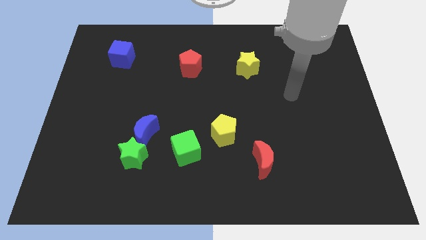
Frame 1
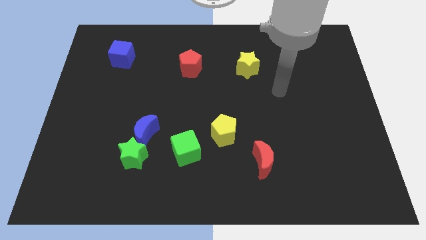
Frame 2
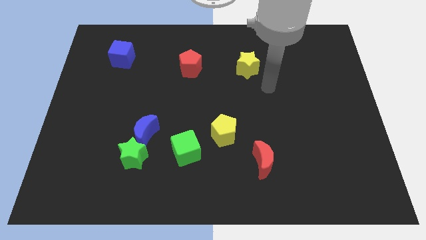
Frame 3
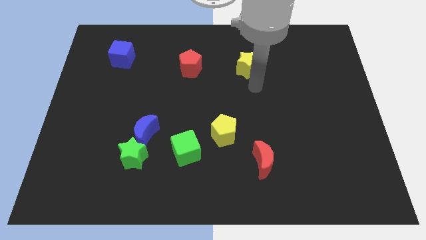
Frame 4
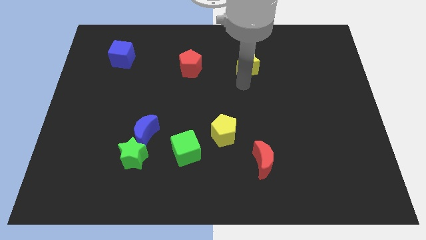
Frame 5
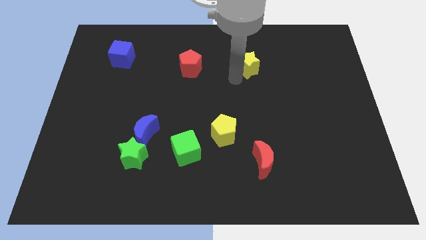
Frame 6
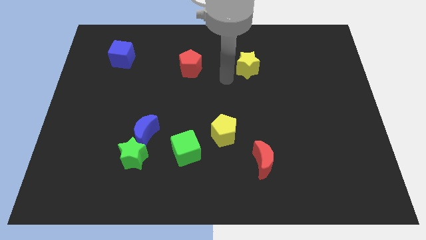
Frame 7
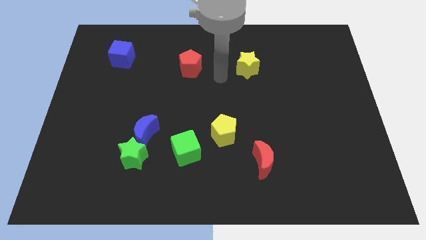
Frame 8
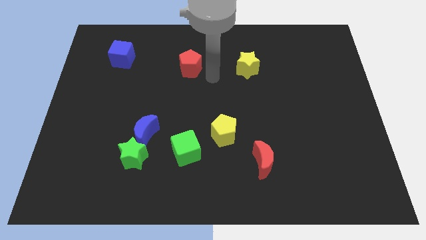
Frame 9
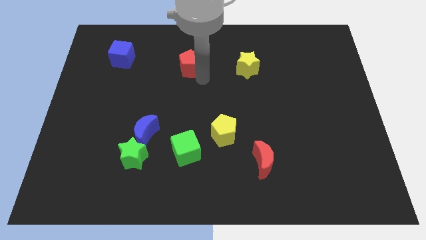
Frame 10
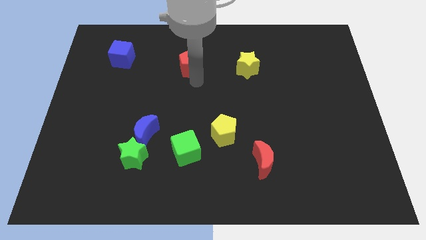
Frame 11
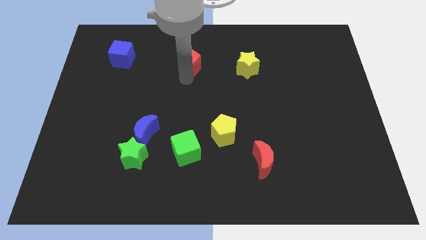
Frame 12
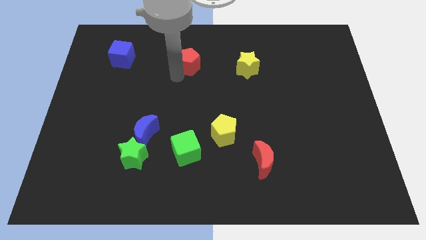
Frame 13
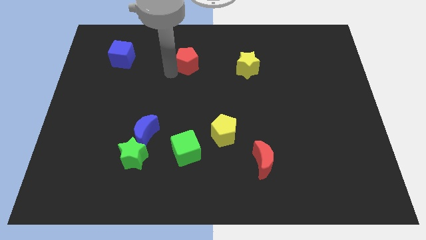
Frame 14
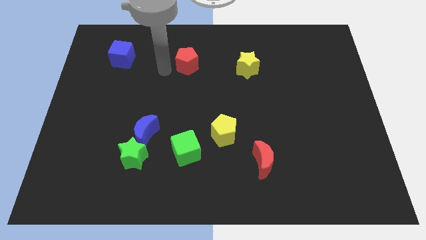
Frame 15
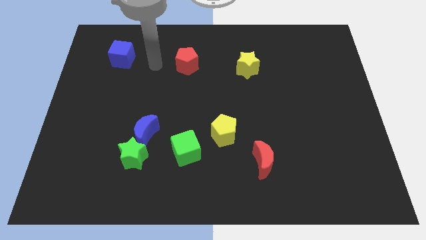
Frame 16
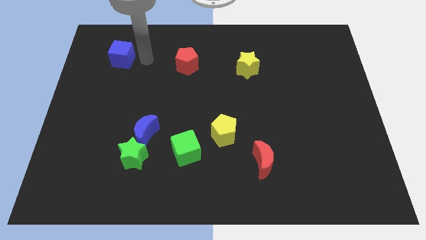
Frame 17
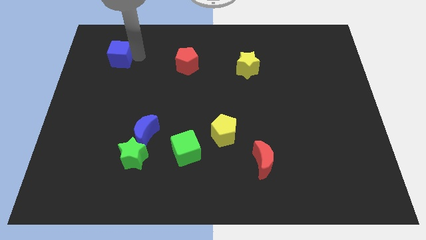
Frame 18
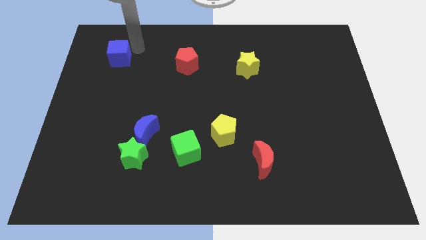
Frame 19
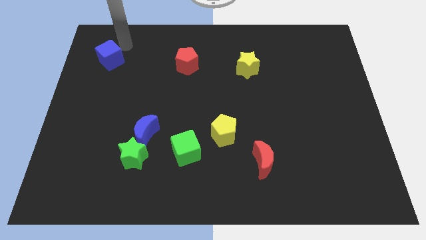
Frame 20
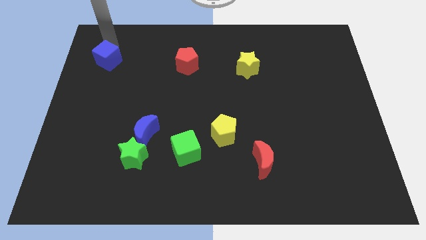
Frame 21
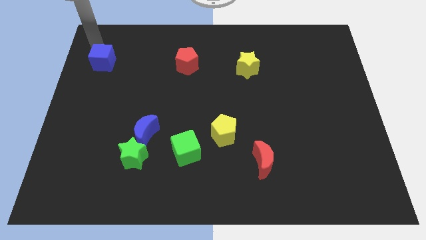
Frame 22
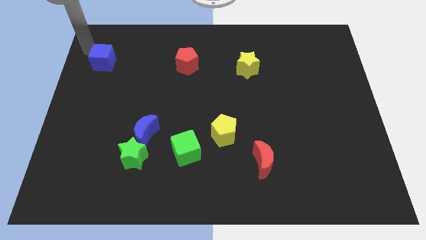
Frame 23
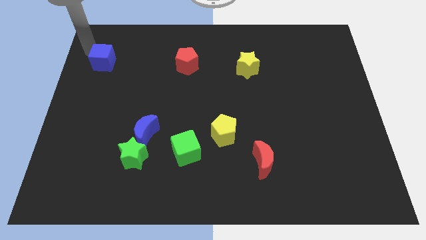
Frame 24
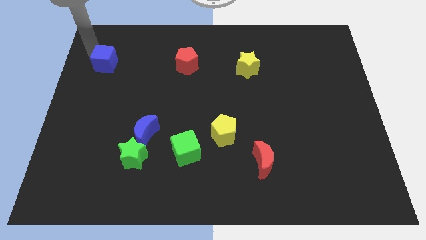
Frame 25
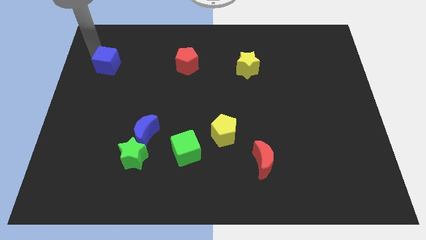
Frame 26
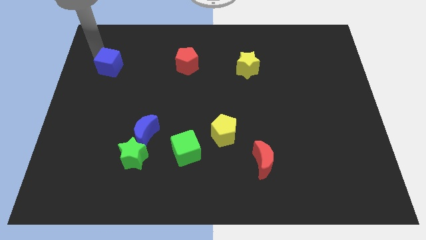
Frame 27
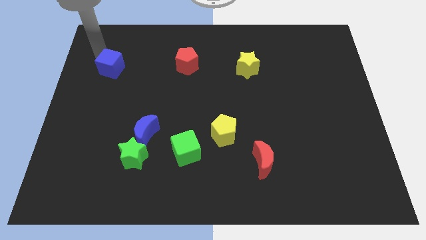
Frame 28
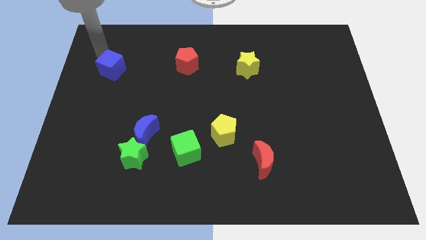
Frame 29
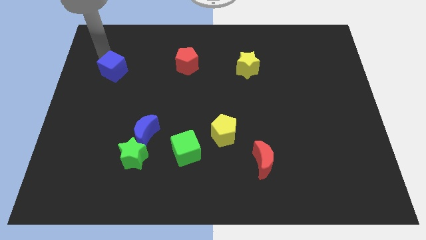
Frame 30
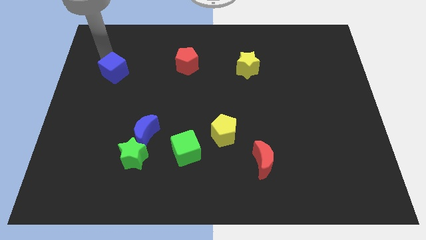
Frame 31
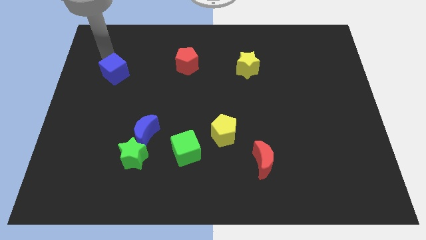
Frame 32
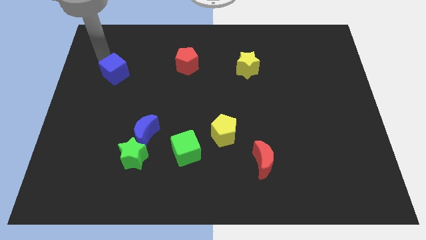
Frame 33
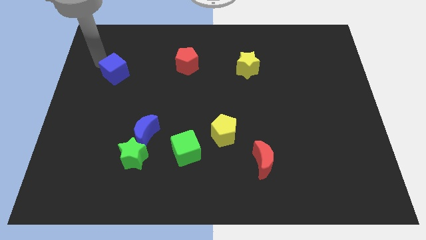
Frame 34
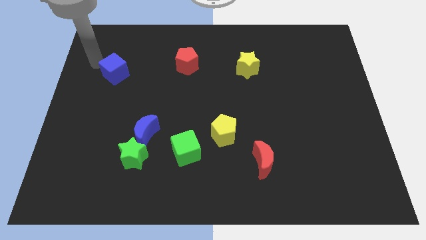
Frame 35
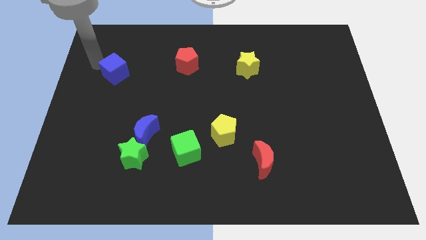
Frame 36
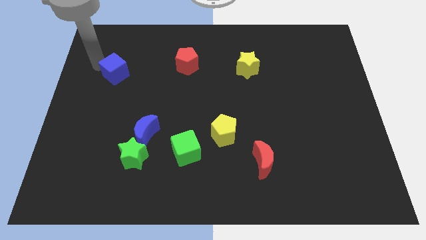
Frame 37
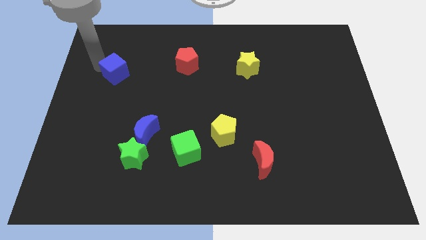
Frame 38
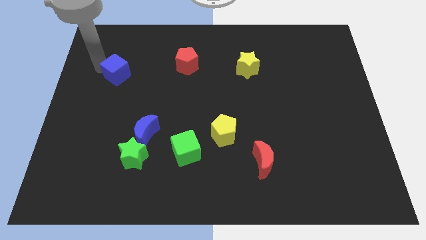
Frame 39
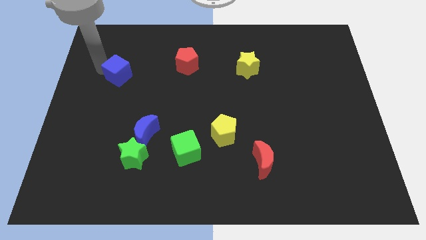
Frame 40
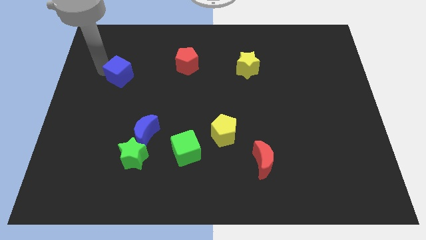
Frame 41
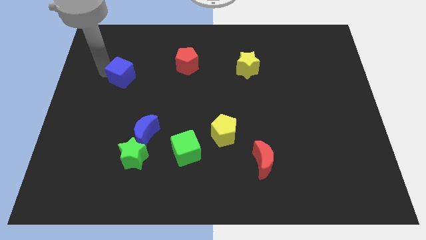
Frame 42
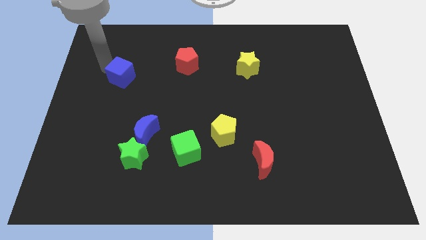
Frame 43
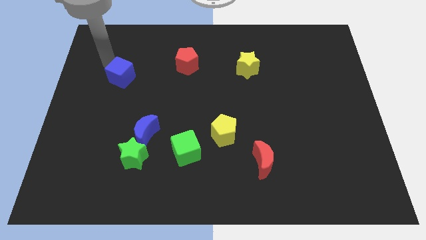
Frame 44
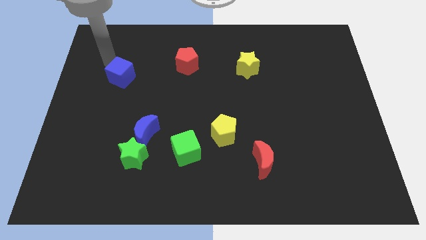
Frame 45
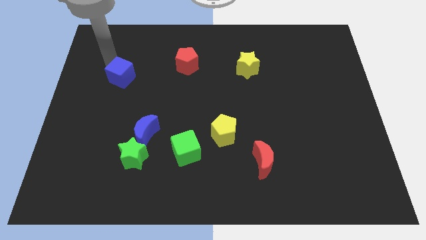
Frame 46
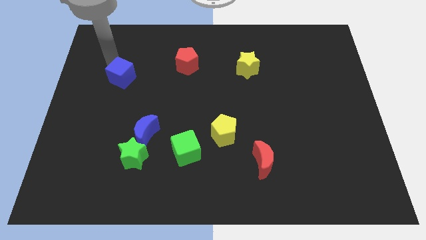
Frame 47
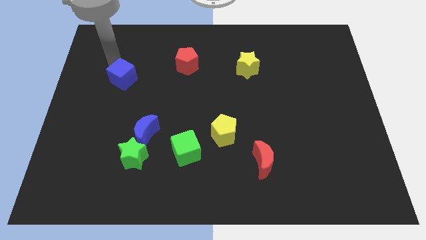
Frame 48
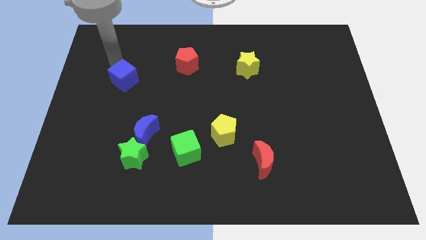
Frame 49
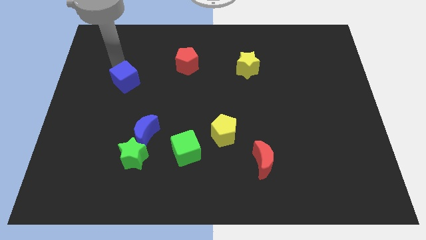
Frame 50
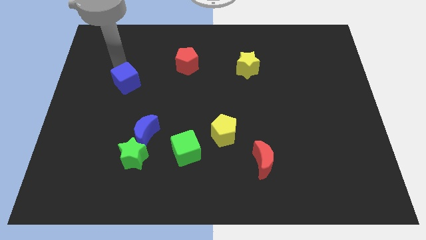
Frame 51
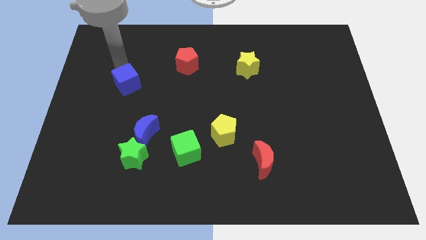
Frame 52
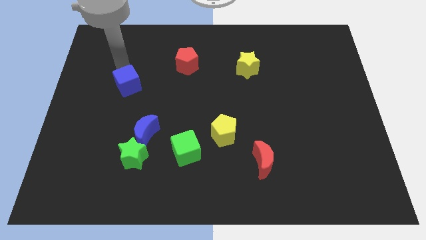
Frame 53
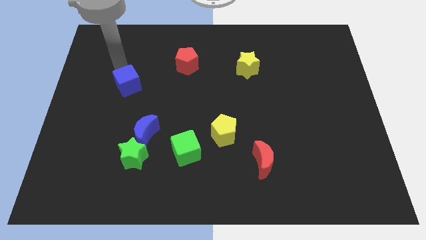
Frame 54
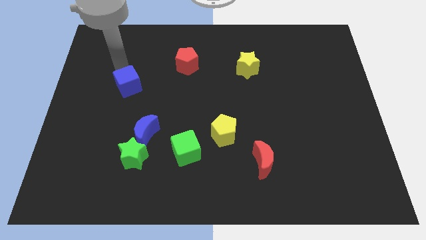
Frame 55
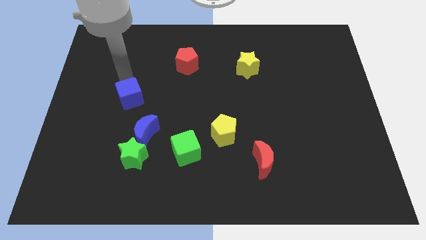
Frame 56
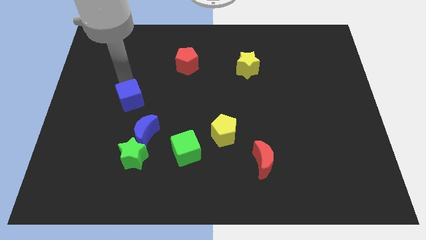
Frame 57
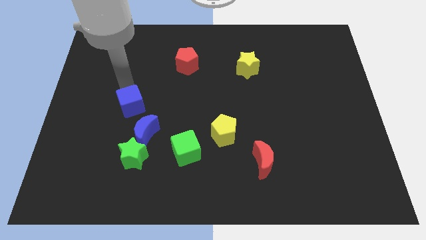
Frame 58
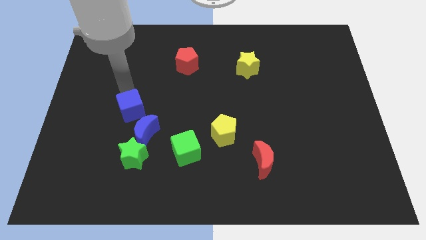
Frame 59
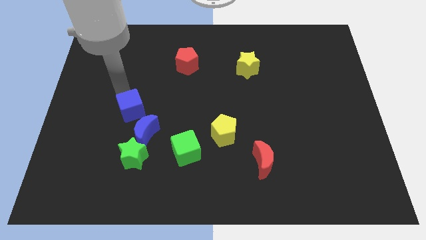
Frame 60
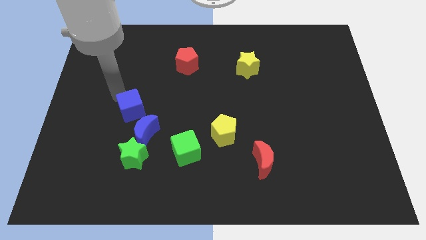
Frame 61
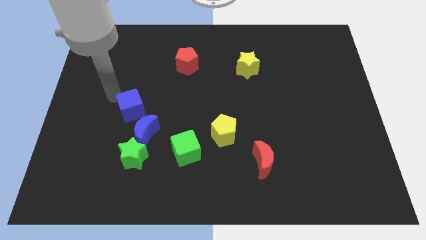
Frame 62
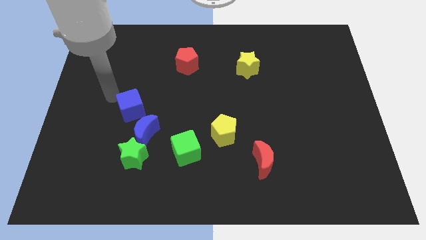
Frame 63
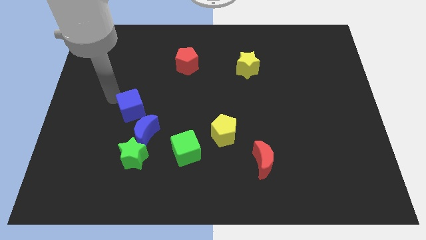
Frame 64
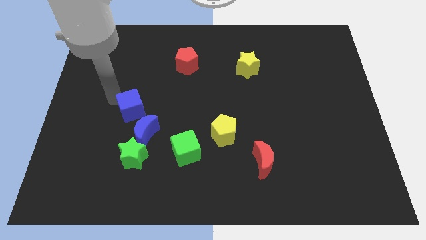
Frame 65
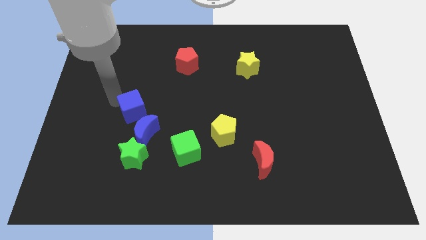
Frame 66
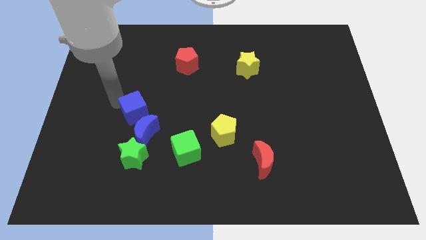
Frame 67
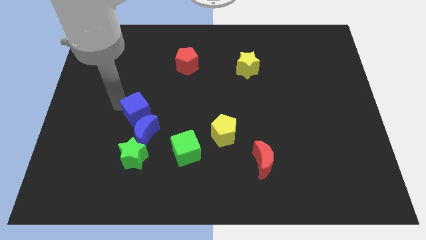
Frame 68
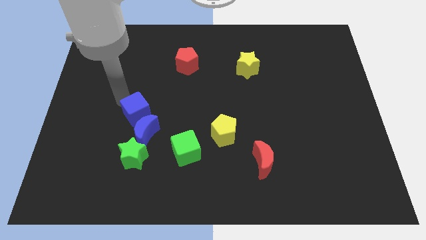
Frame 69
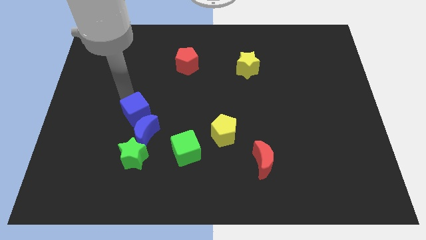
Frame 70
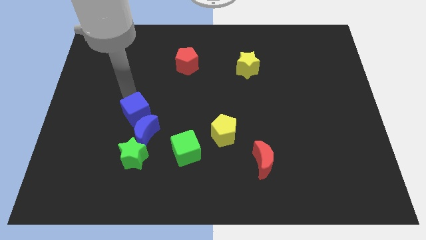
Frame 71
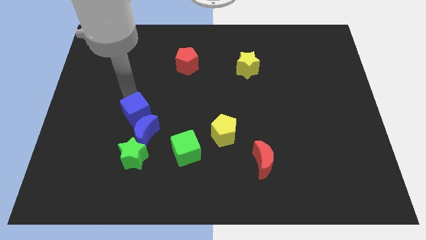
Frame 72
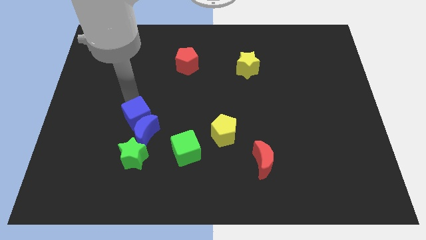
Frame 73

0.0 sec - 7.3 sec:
put the blue cube towards the blue moon
